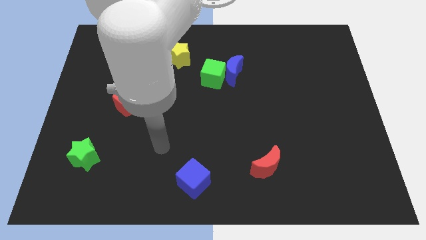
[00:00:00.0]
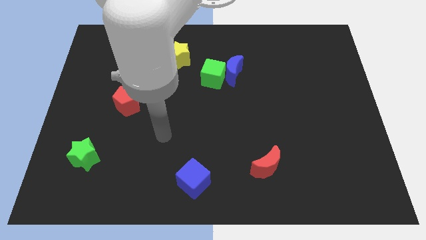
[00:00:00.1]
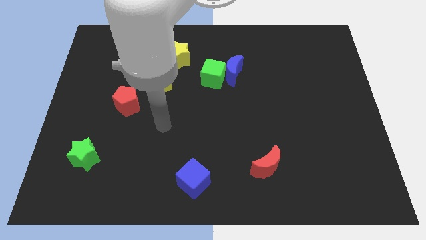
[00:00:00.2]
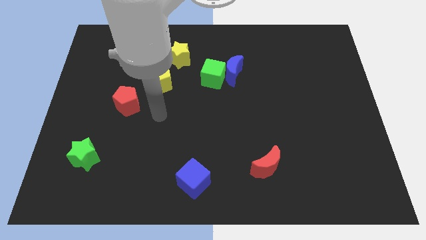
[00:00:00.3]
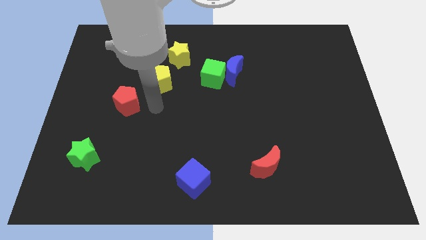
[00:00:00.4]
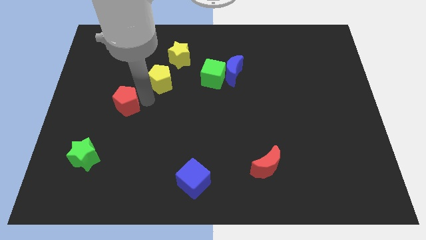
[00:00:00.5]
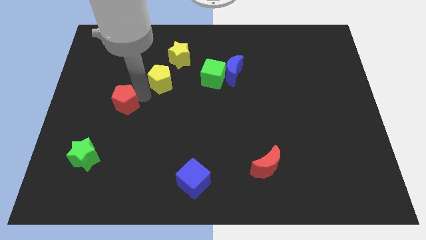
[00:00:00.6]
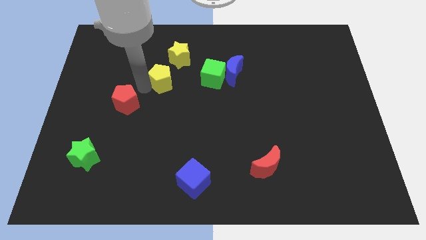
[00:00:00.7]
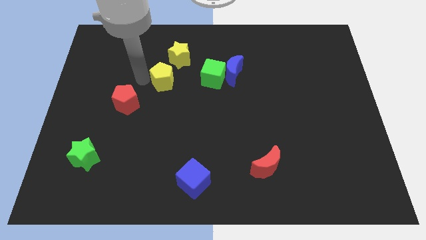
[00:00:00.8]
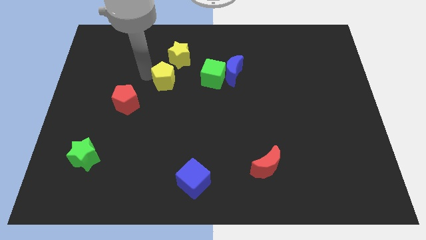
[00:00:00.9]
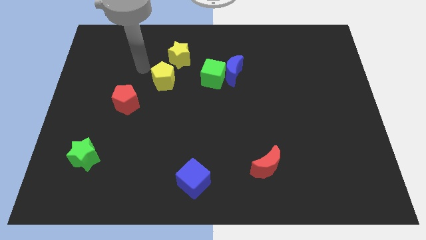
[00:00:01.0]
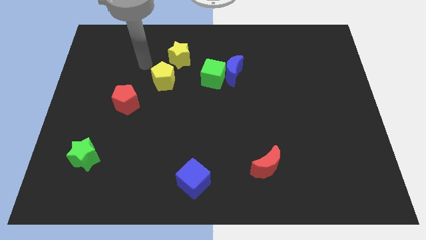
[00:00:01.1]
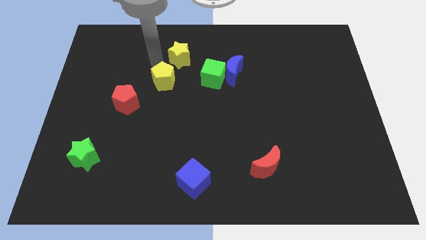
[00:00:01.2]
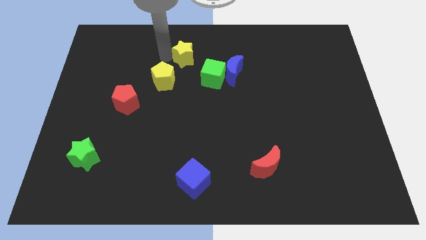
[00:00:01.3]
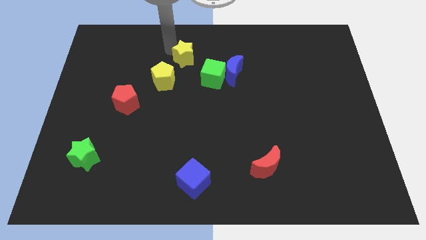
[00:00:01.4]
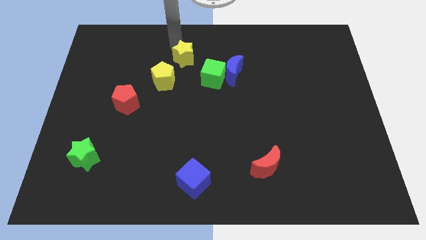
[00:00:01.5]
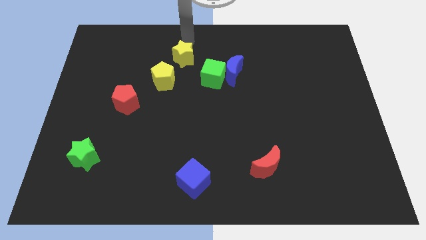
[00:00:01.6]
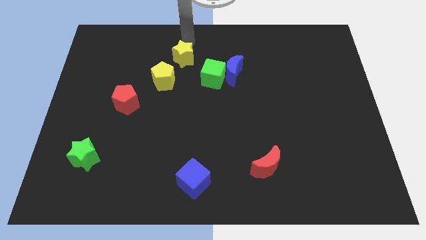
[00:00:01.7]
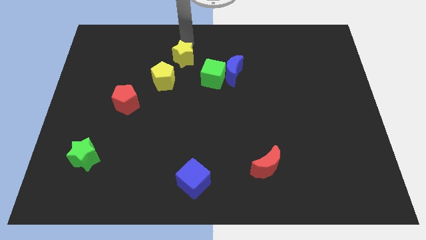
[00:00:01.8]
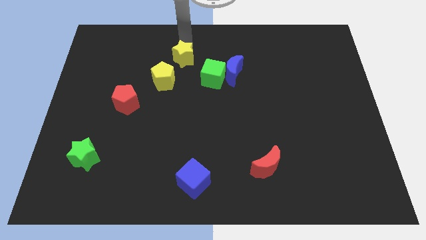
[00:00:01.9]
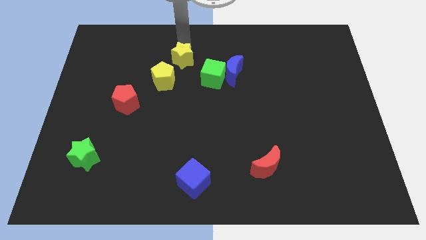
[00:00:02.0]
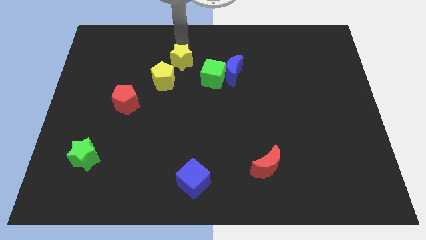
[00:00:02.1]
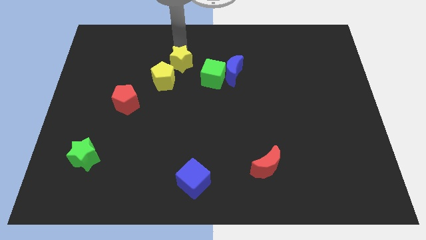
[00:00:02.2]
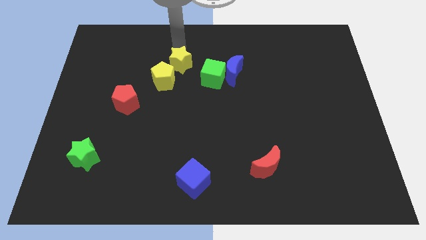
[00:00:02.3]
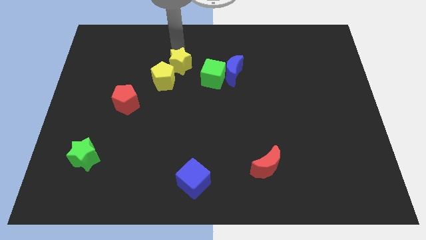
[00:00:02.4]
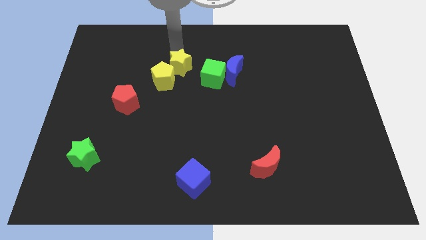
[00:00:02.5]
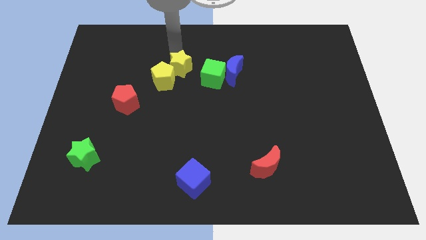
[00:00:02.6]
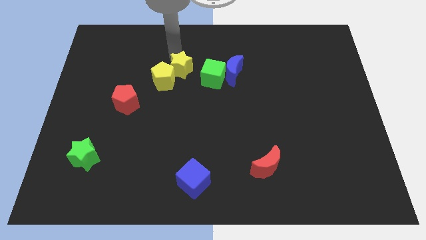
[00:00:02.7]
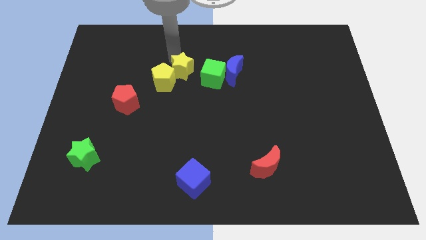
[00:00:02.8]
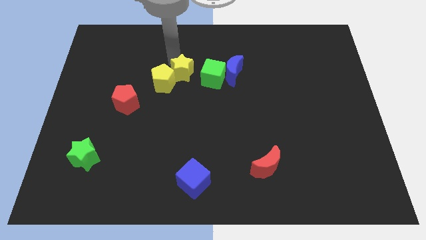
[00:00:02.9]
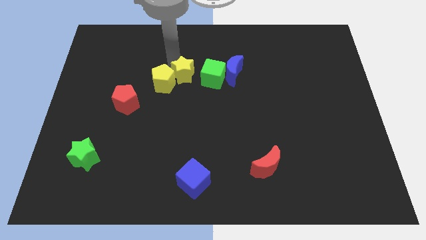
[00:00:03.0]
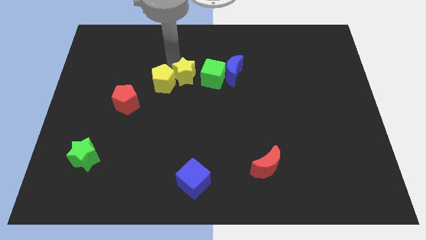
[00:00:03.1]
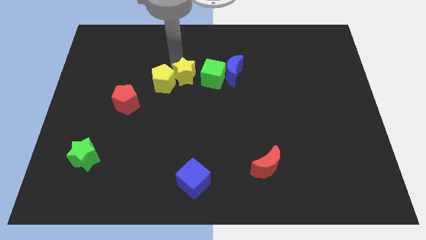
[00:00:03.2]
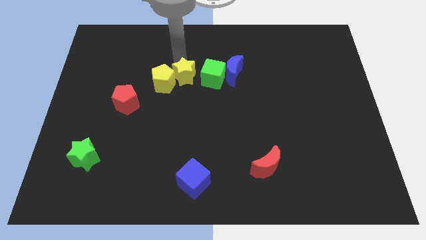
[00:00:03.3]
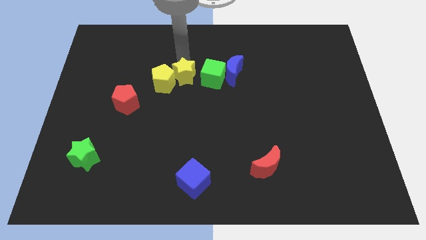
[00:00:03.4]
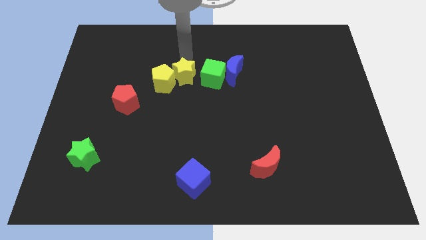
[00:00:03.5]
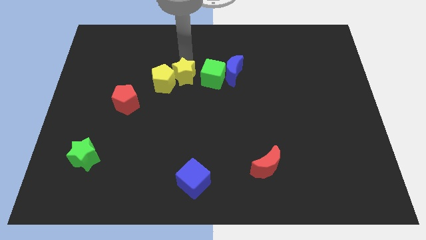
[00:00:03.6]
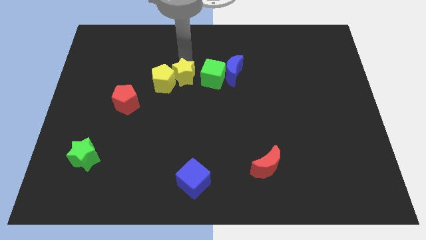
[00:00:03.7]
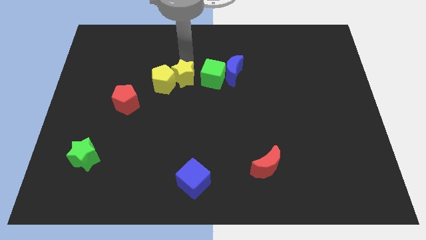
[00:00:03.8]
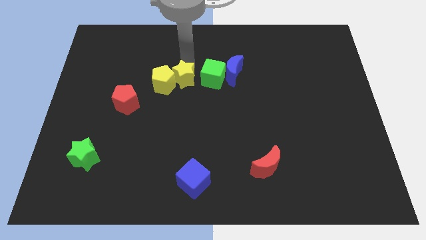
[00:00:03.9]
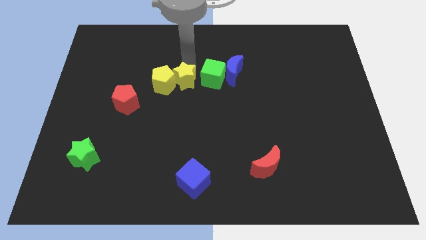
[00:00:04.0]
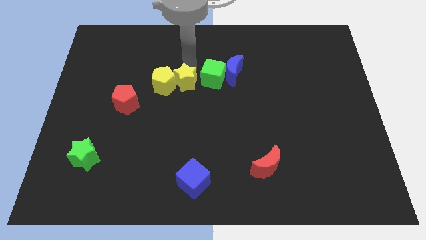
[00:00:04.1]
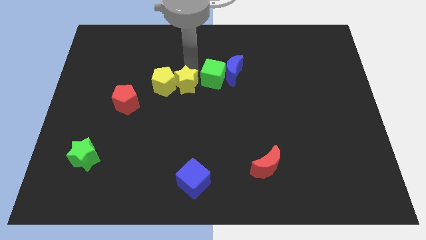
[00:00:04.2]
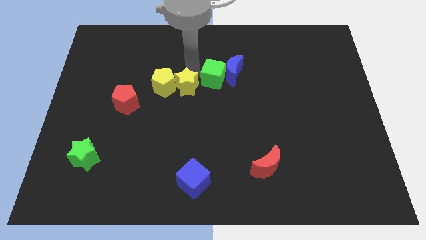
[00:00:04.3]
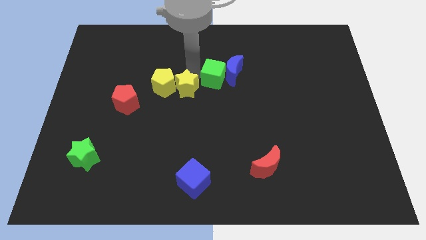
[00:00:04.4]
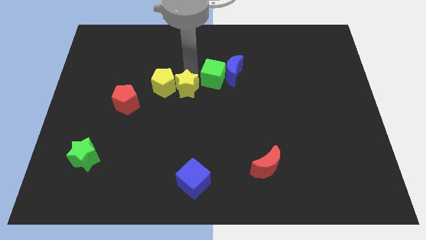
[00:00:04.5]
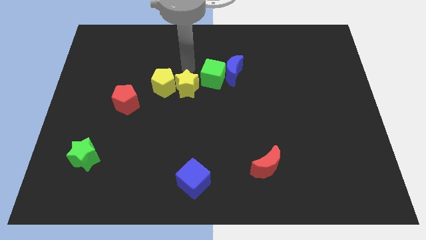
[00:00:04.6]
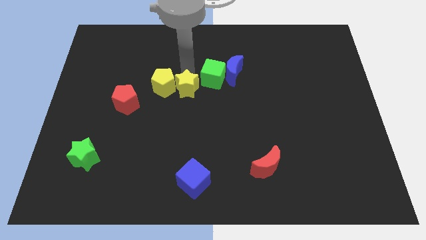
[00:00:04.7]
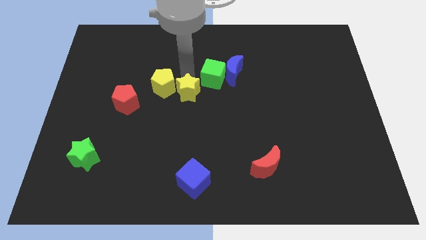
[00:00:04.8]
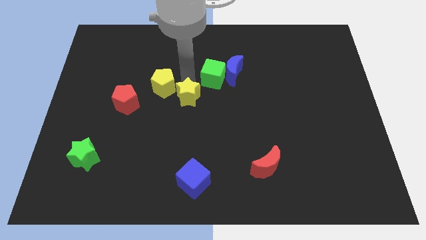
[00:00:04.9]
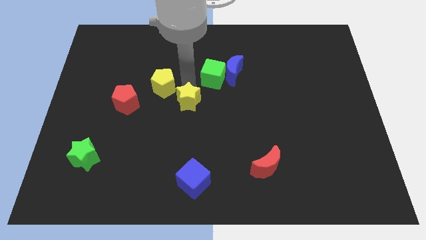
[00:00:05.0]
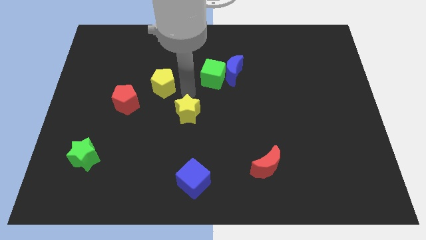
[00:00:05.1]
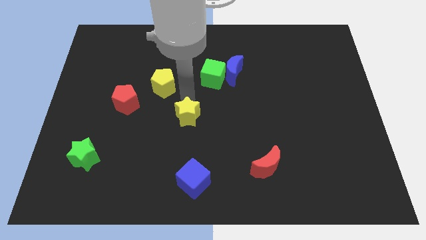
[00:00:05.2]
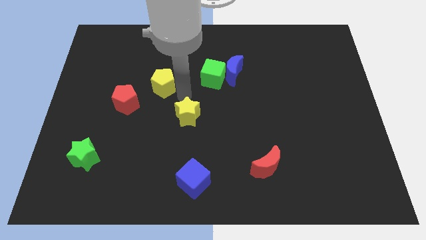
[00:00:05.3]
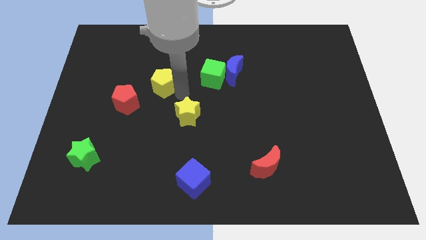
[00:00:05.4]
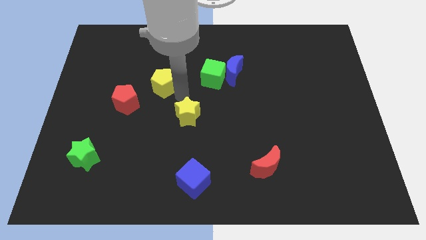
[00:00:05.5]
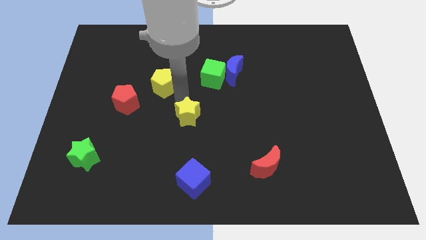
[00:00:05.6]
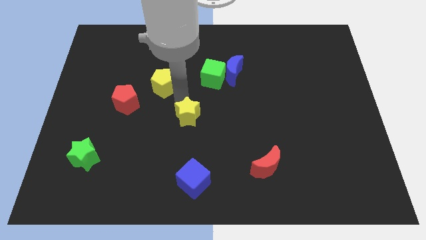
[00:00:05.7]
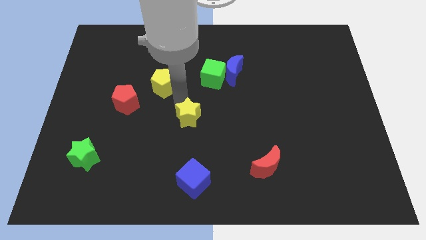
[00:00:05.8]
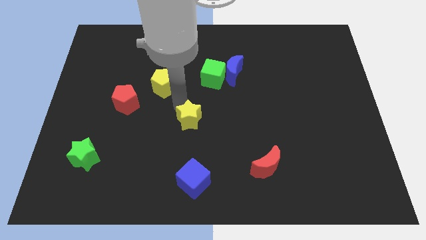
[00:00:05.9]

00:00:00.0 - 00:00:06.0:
slide the yellow star above the blue cube

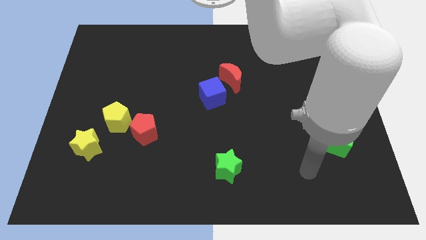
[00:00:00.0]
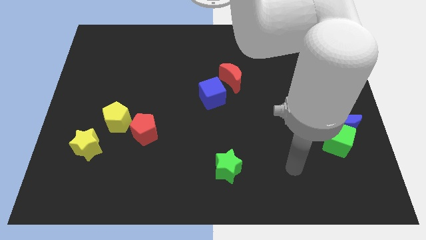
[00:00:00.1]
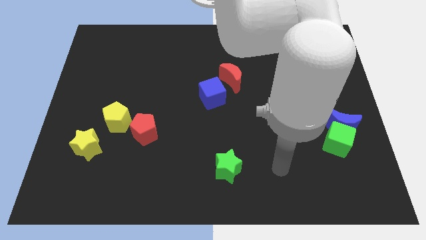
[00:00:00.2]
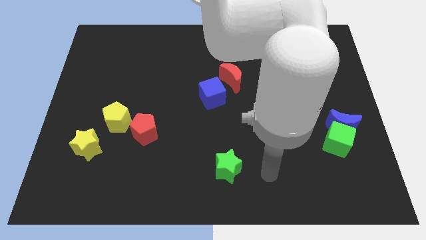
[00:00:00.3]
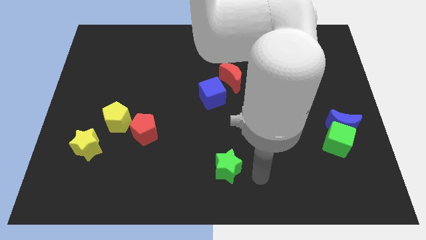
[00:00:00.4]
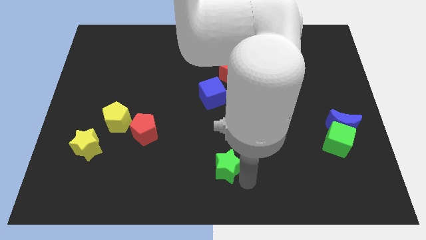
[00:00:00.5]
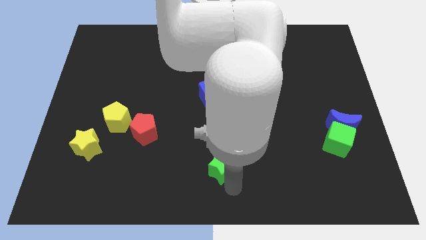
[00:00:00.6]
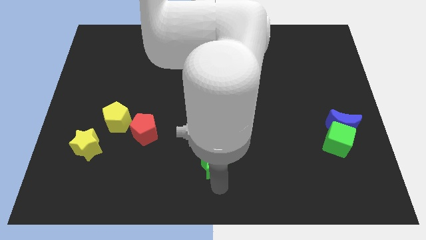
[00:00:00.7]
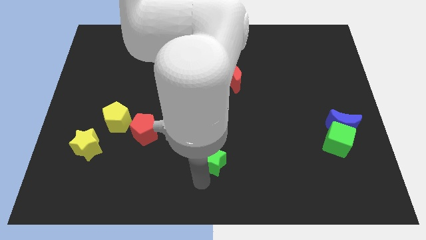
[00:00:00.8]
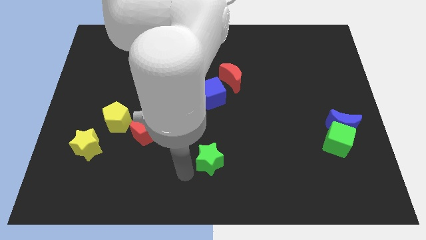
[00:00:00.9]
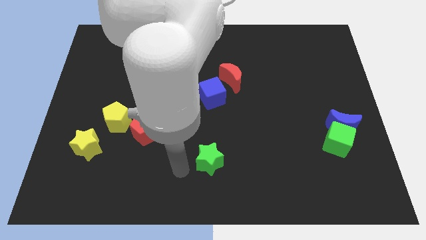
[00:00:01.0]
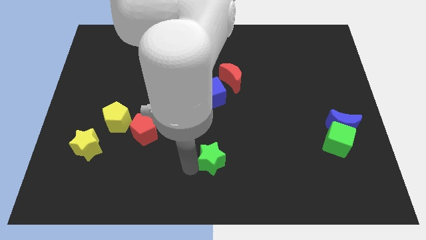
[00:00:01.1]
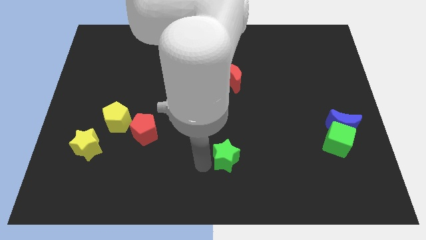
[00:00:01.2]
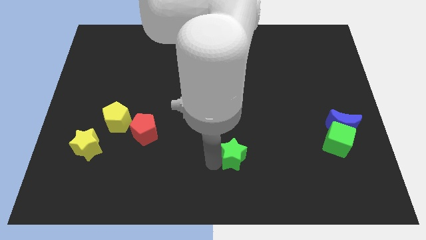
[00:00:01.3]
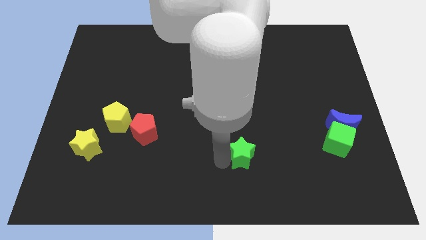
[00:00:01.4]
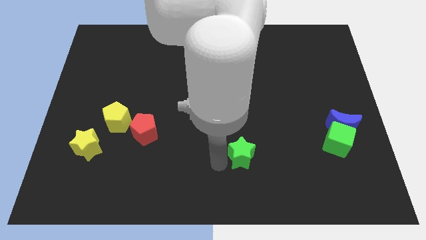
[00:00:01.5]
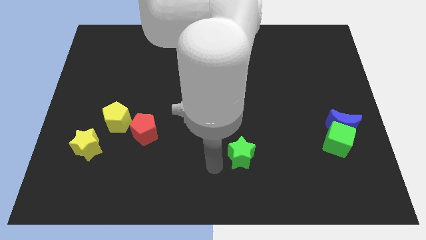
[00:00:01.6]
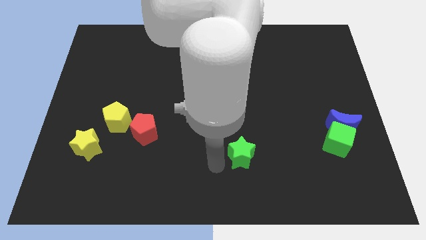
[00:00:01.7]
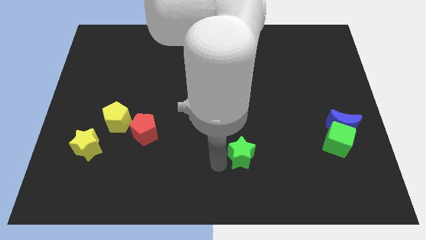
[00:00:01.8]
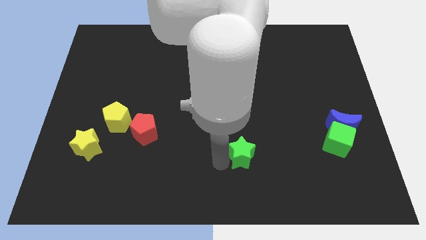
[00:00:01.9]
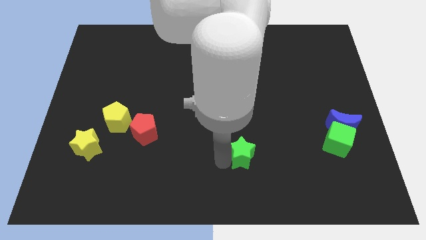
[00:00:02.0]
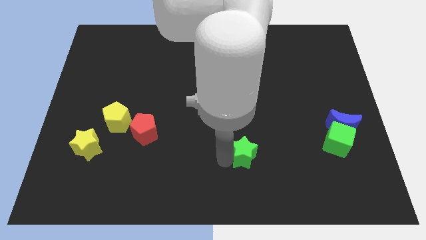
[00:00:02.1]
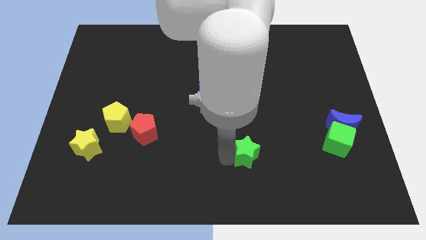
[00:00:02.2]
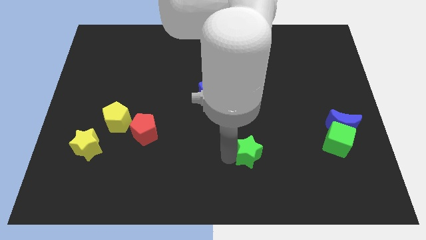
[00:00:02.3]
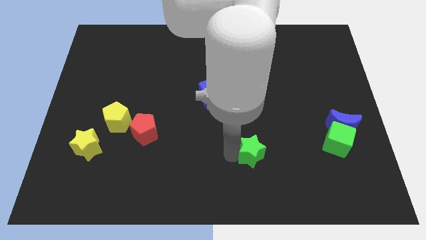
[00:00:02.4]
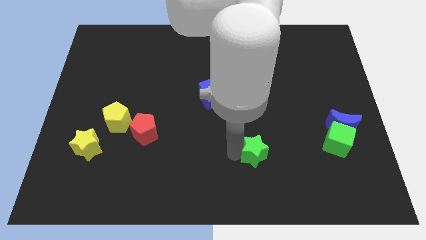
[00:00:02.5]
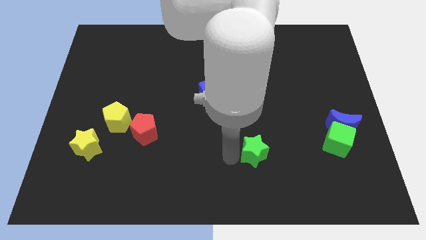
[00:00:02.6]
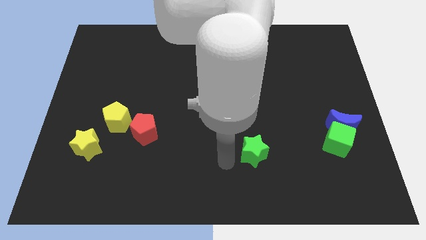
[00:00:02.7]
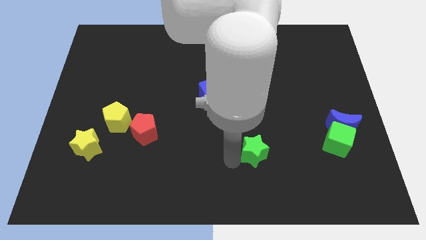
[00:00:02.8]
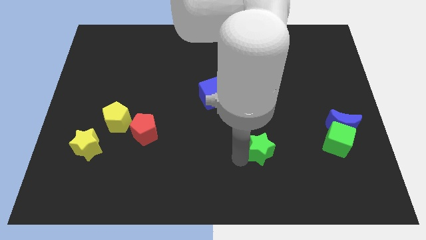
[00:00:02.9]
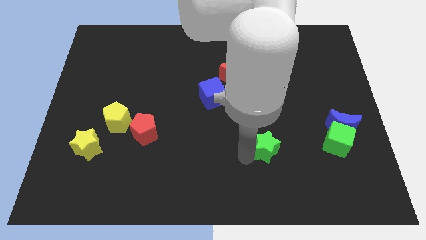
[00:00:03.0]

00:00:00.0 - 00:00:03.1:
move the green star just left of the green cube
